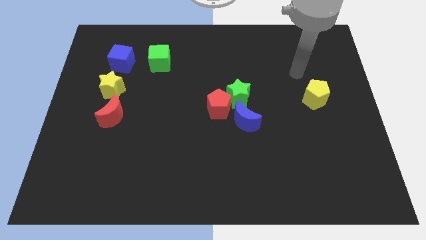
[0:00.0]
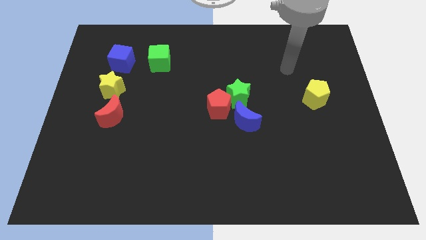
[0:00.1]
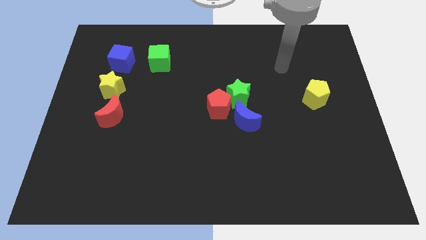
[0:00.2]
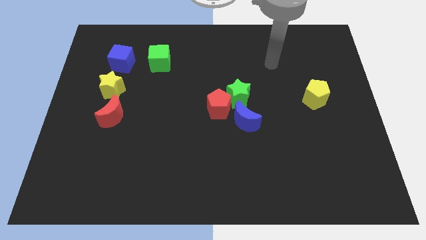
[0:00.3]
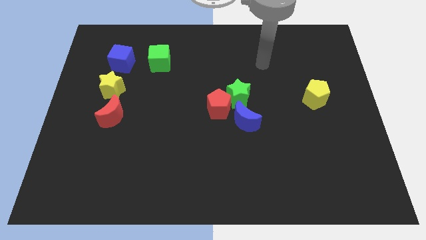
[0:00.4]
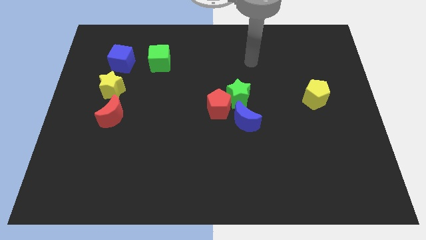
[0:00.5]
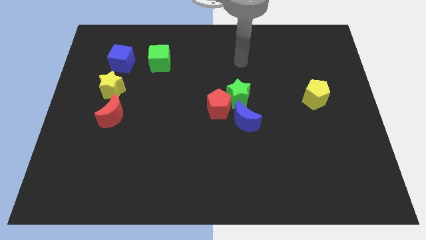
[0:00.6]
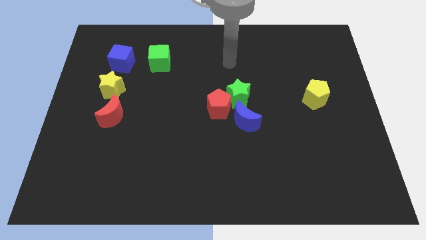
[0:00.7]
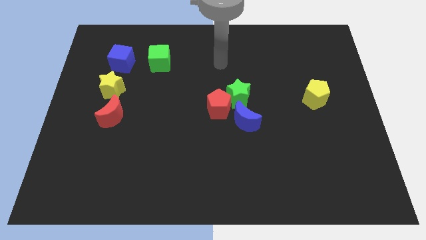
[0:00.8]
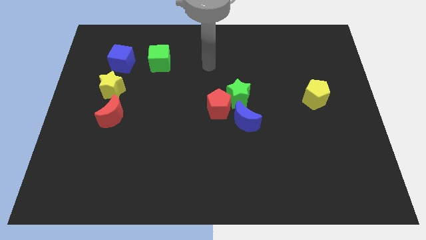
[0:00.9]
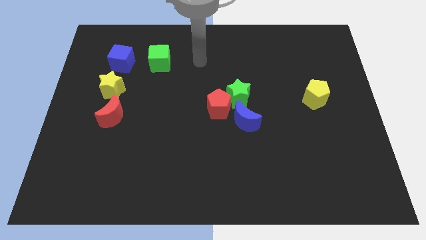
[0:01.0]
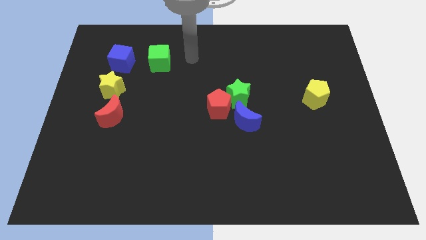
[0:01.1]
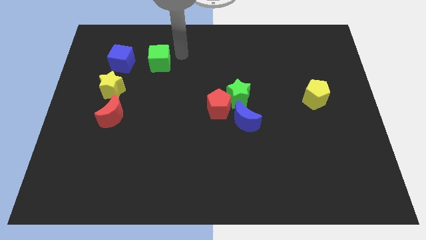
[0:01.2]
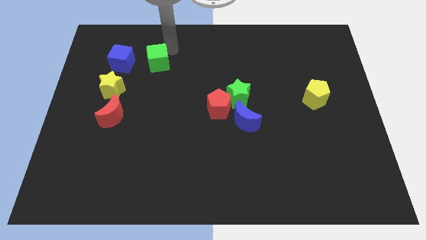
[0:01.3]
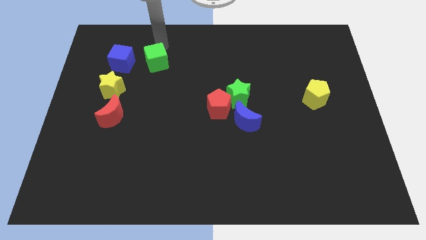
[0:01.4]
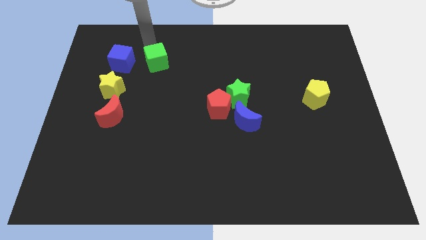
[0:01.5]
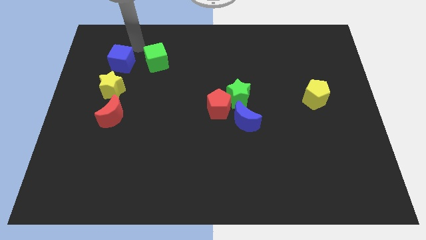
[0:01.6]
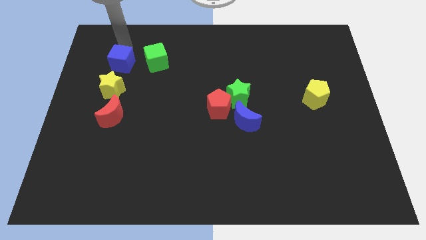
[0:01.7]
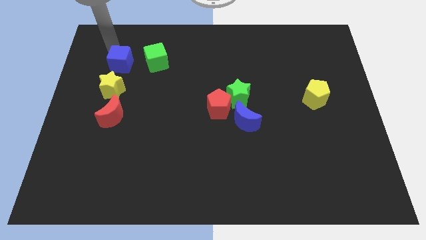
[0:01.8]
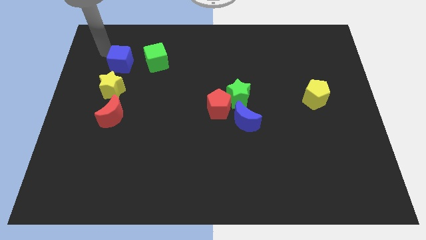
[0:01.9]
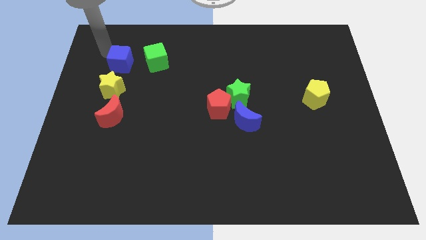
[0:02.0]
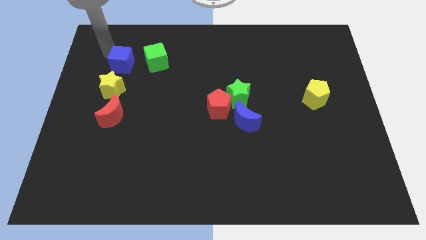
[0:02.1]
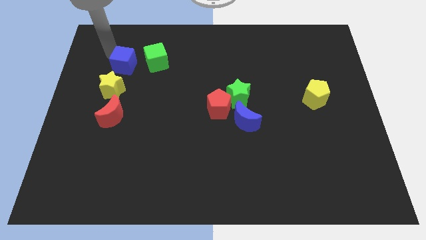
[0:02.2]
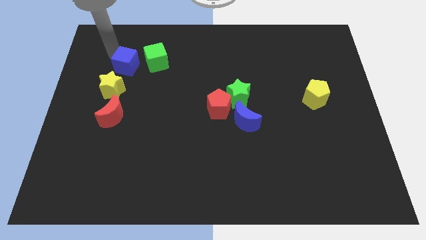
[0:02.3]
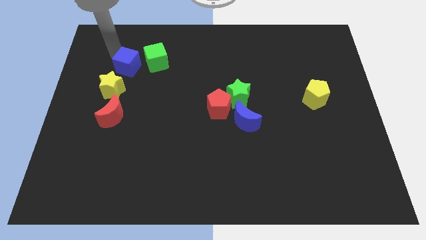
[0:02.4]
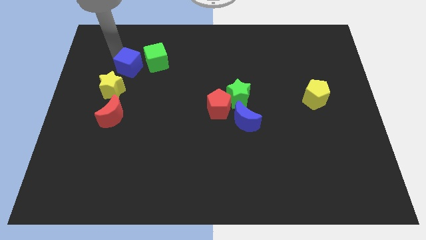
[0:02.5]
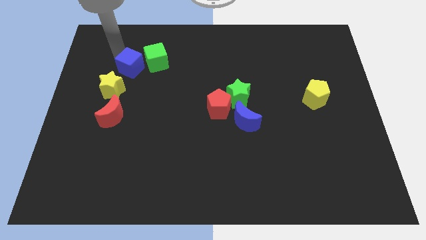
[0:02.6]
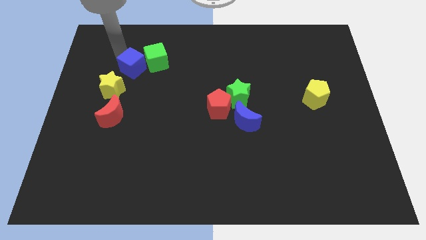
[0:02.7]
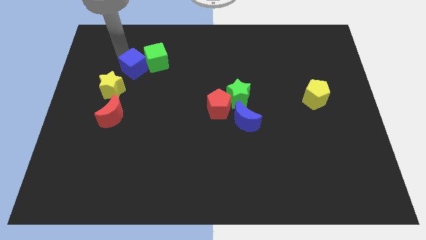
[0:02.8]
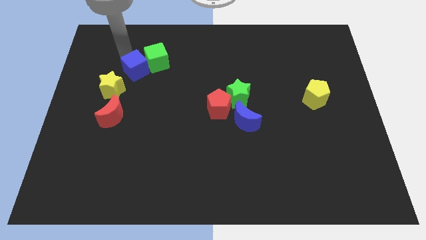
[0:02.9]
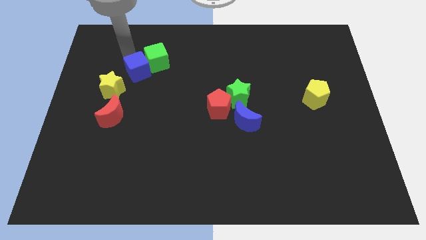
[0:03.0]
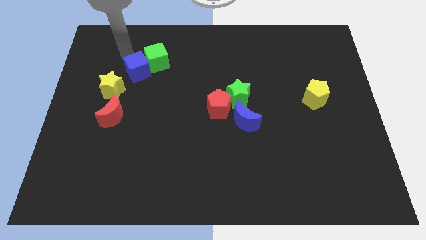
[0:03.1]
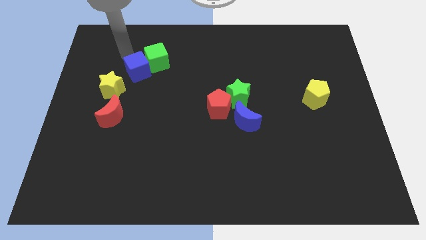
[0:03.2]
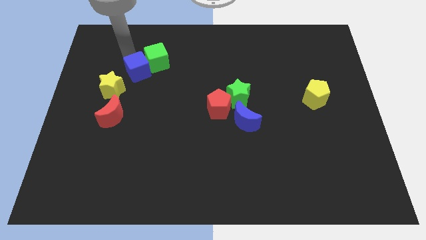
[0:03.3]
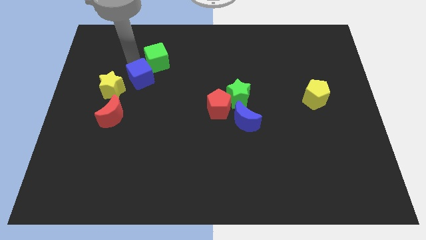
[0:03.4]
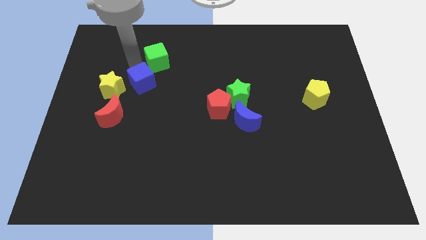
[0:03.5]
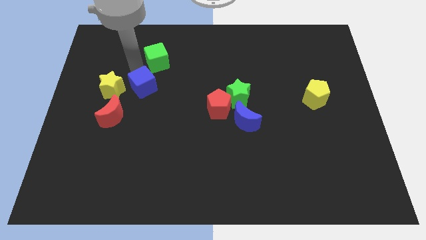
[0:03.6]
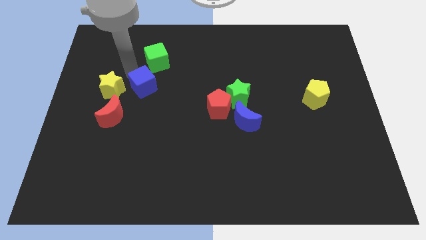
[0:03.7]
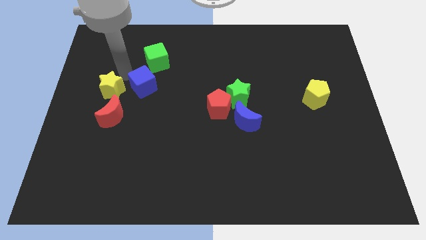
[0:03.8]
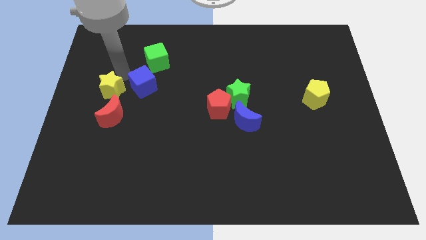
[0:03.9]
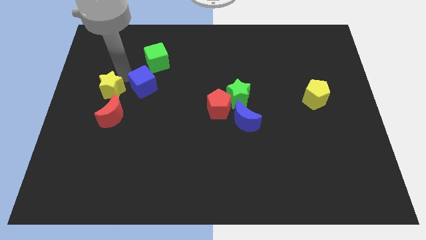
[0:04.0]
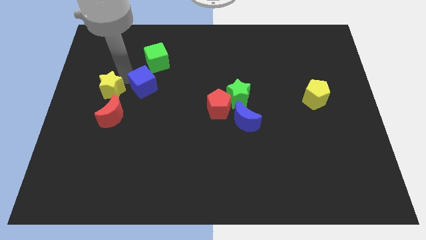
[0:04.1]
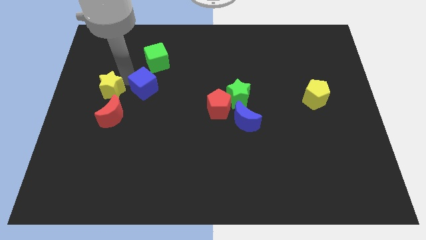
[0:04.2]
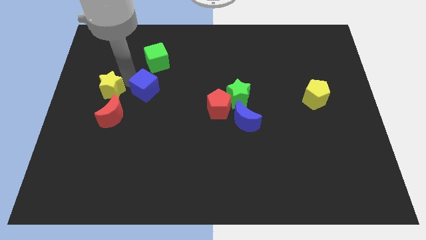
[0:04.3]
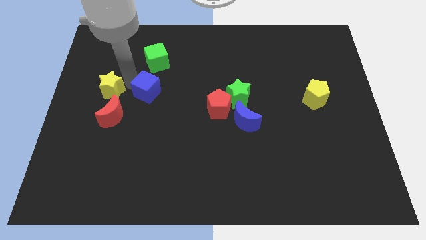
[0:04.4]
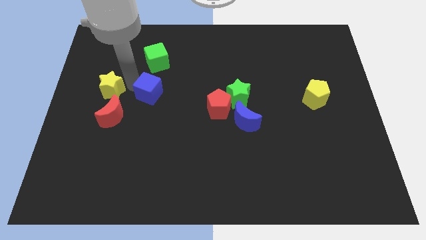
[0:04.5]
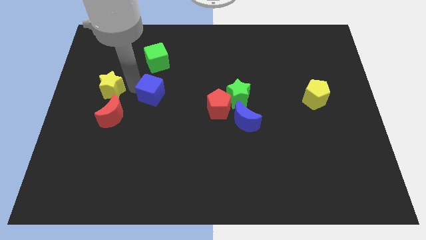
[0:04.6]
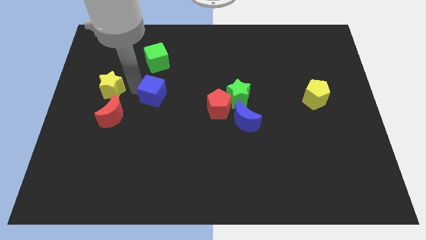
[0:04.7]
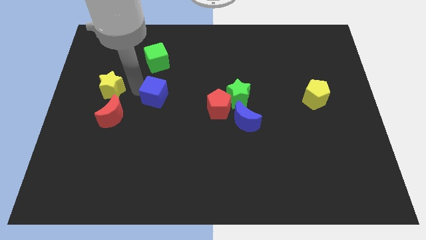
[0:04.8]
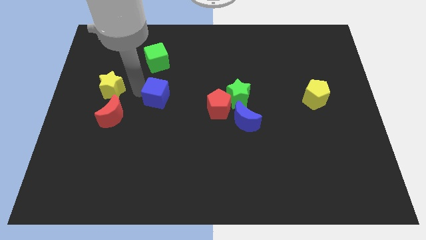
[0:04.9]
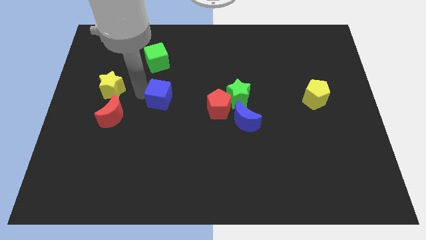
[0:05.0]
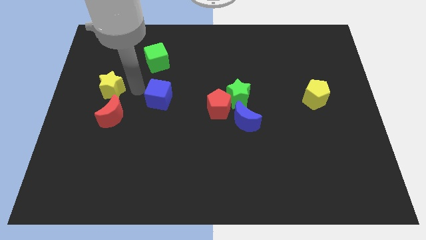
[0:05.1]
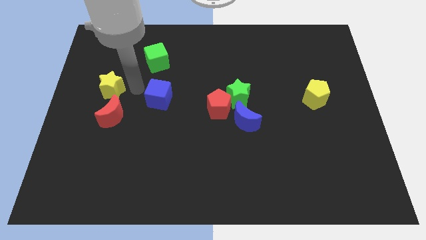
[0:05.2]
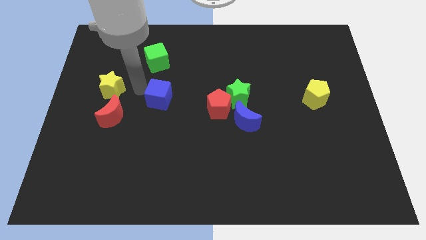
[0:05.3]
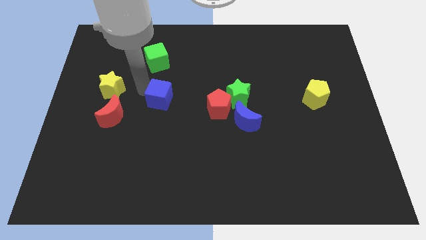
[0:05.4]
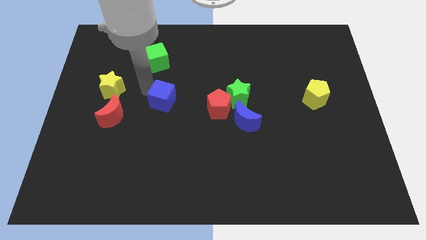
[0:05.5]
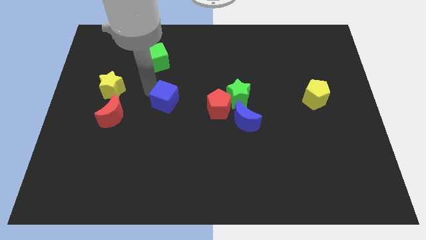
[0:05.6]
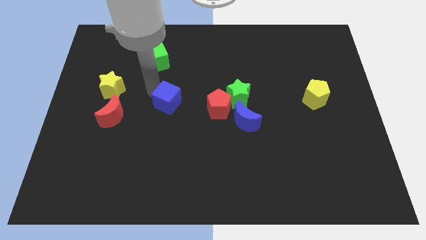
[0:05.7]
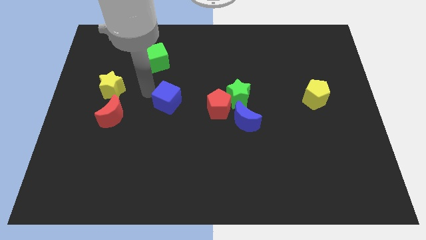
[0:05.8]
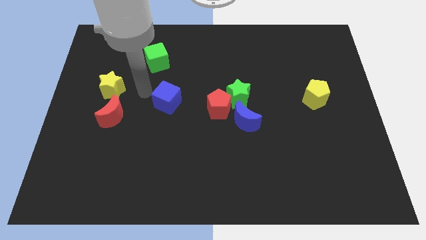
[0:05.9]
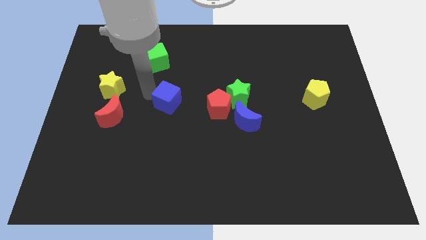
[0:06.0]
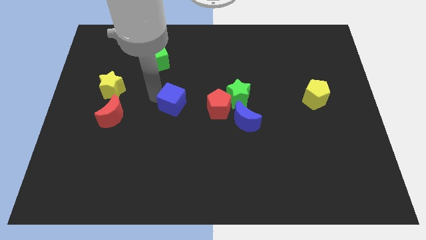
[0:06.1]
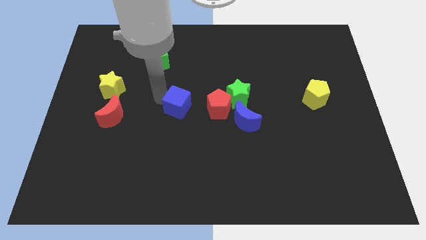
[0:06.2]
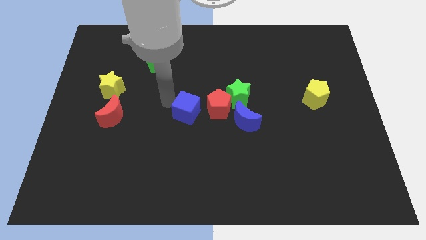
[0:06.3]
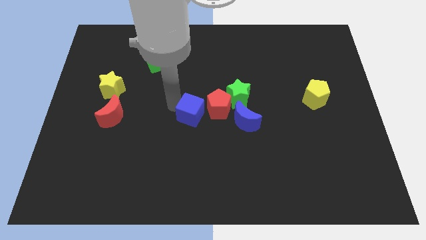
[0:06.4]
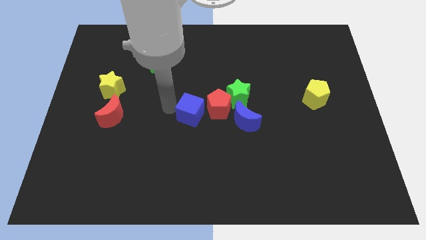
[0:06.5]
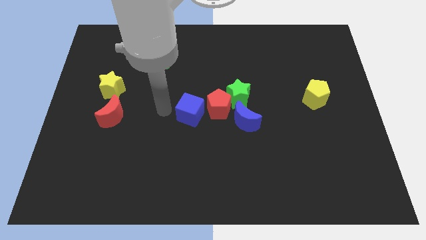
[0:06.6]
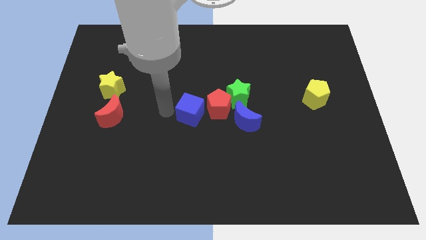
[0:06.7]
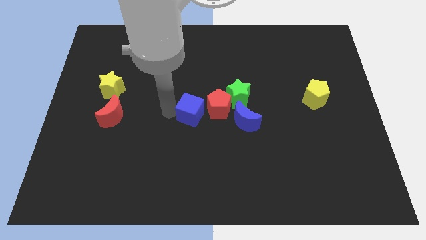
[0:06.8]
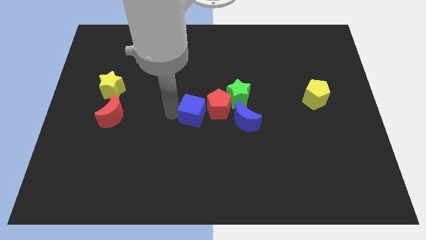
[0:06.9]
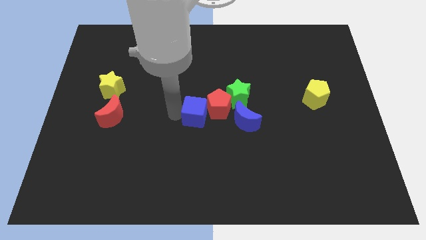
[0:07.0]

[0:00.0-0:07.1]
push the blue cube to the bottom left side of the green star
